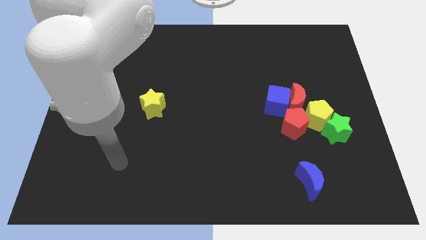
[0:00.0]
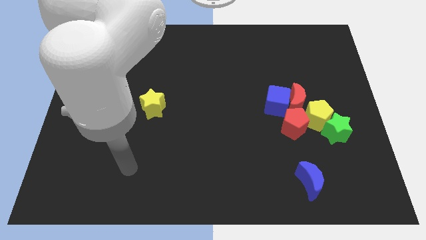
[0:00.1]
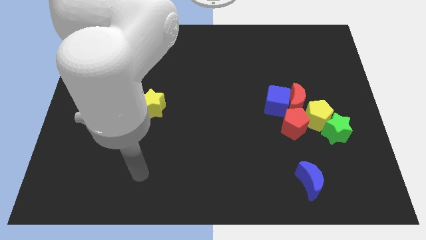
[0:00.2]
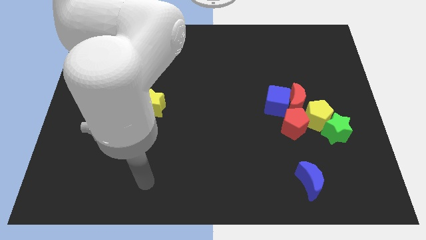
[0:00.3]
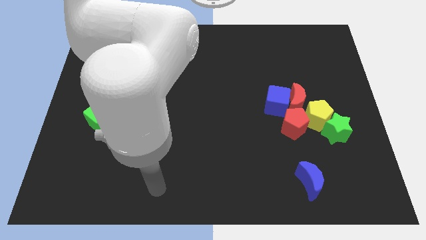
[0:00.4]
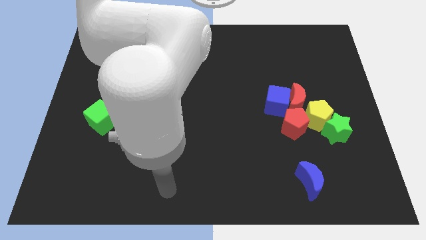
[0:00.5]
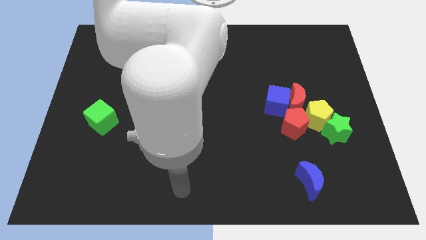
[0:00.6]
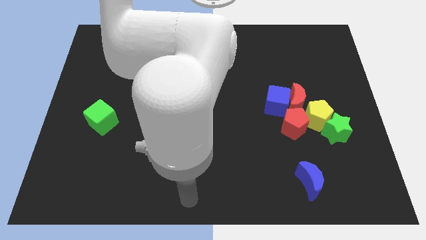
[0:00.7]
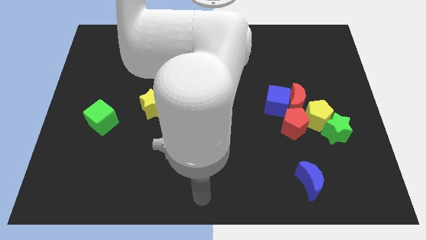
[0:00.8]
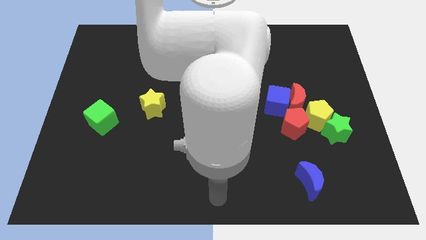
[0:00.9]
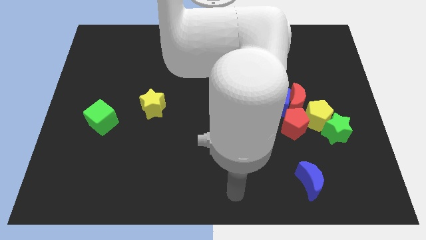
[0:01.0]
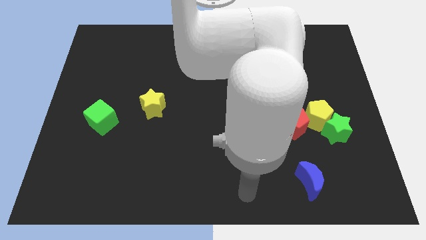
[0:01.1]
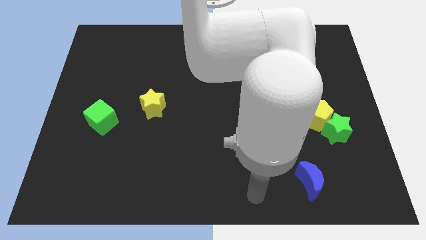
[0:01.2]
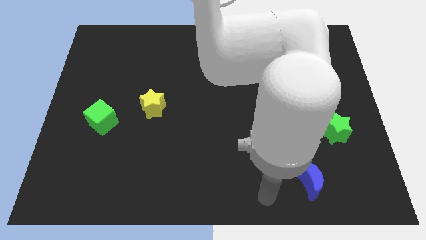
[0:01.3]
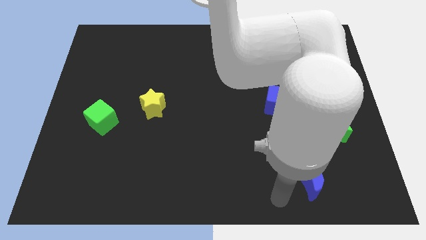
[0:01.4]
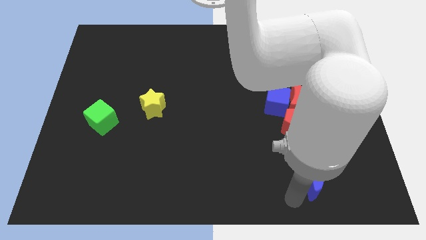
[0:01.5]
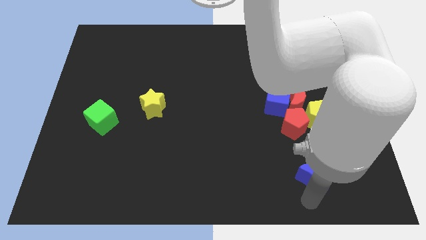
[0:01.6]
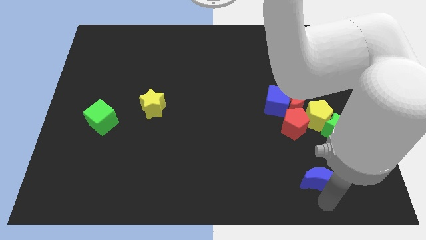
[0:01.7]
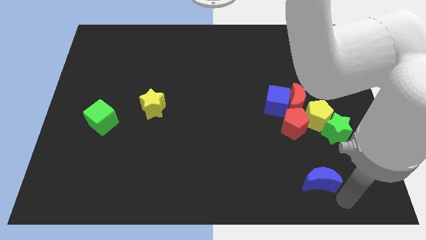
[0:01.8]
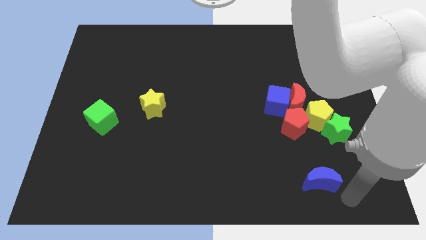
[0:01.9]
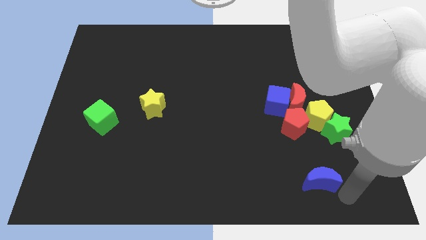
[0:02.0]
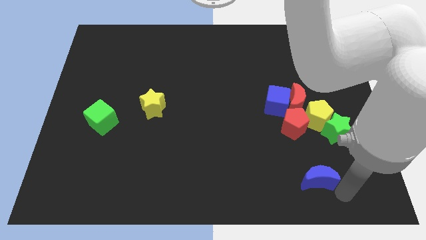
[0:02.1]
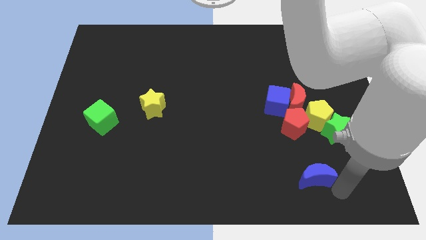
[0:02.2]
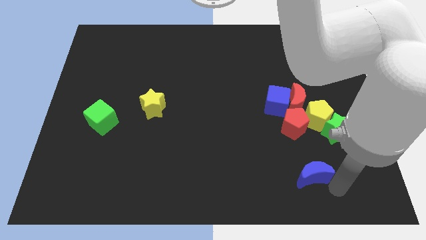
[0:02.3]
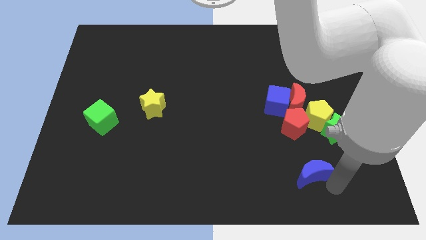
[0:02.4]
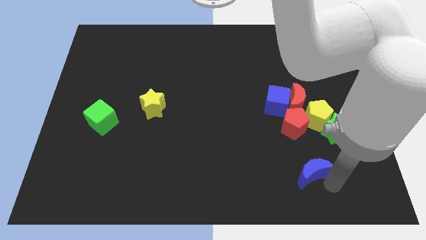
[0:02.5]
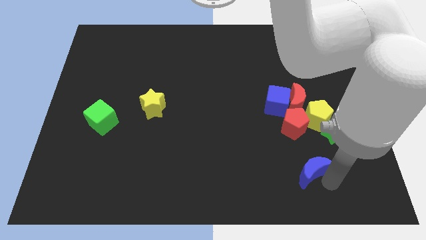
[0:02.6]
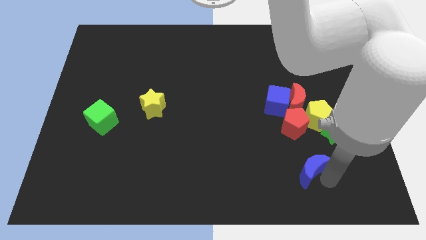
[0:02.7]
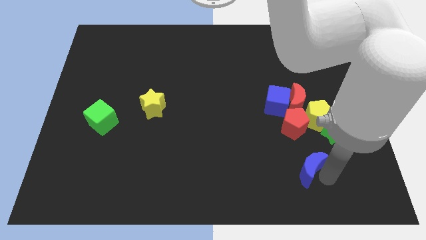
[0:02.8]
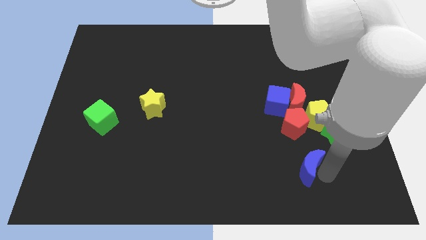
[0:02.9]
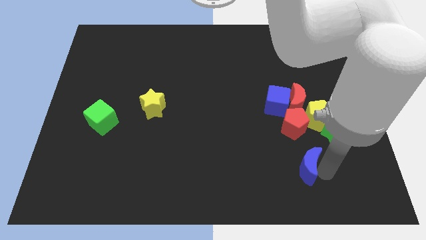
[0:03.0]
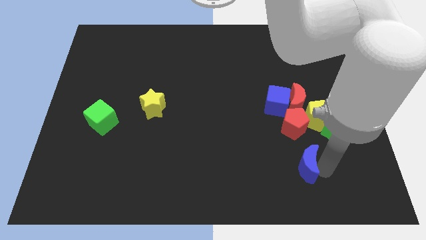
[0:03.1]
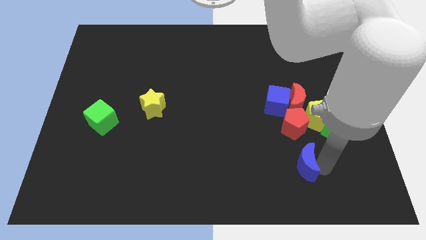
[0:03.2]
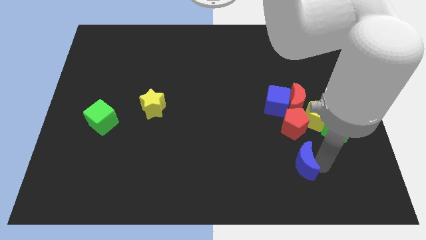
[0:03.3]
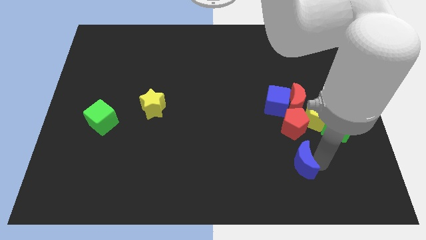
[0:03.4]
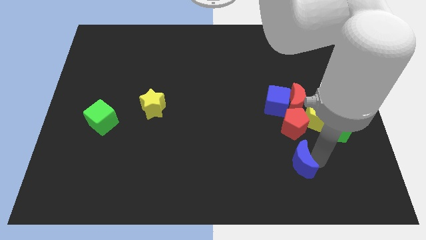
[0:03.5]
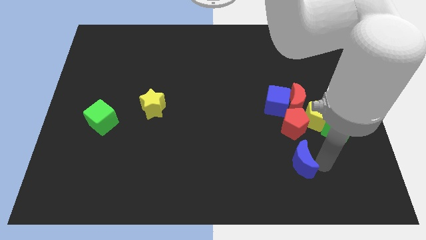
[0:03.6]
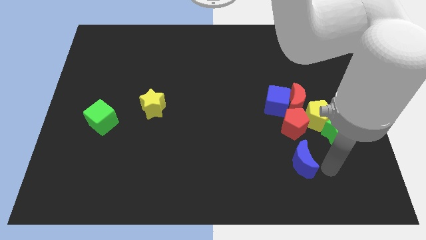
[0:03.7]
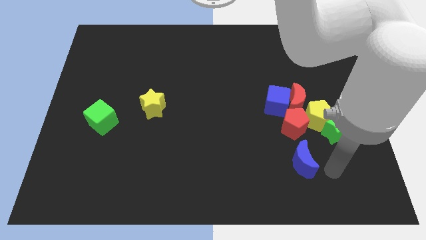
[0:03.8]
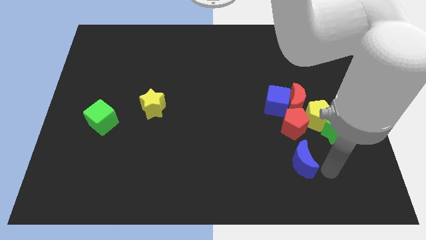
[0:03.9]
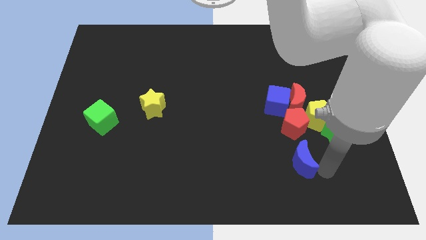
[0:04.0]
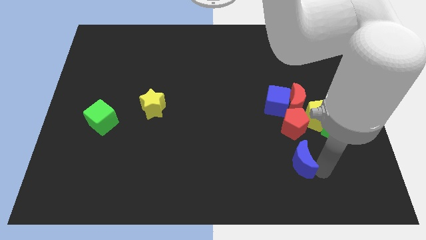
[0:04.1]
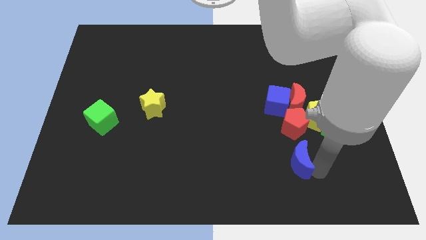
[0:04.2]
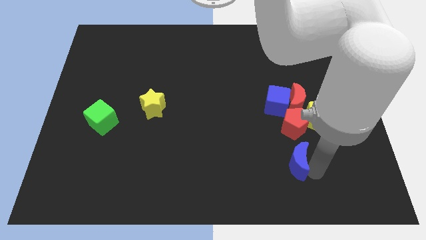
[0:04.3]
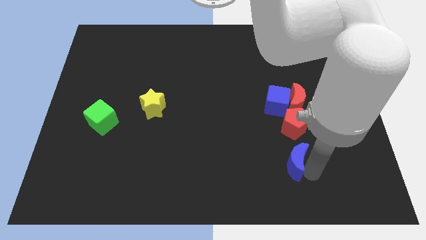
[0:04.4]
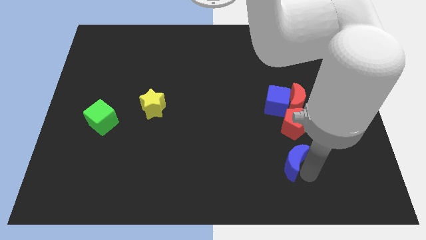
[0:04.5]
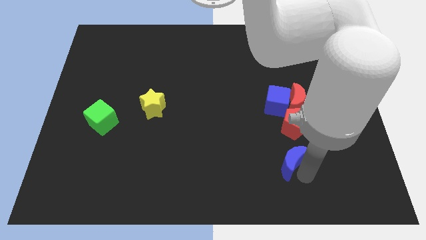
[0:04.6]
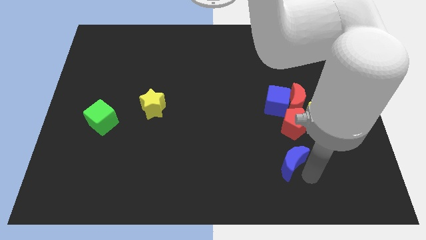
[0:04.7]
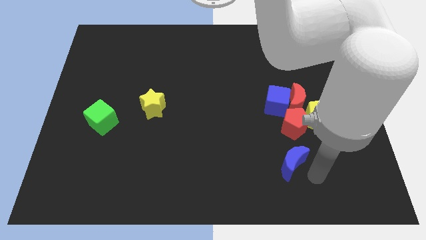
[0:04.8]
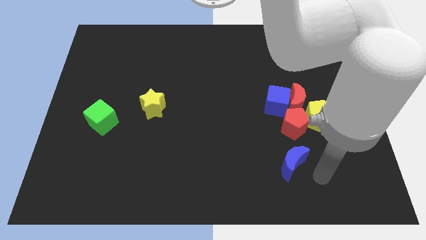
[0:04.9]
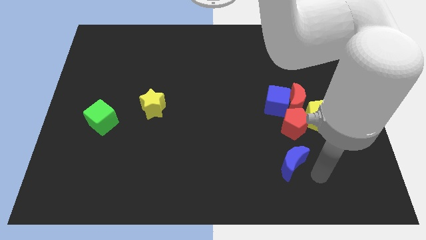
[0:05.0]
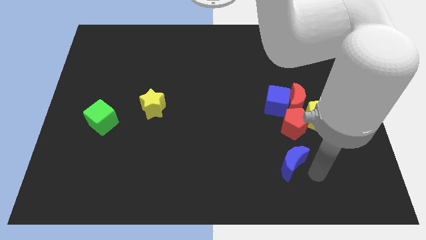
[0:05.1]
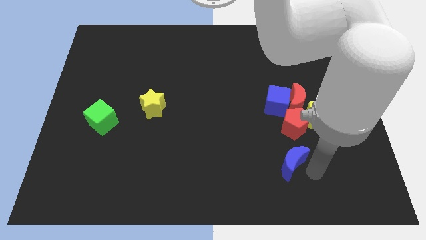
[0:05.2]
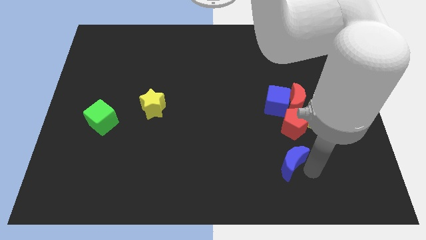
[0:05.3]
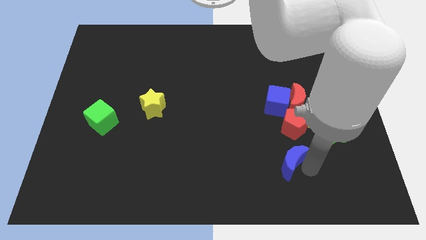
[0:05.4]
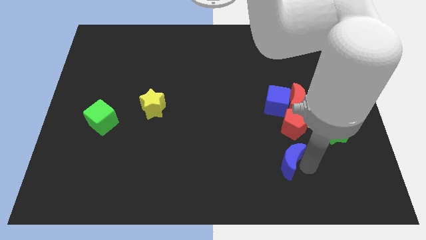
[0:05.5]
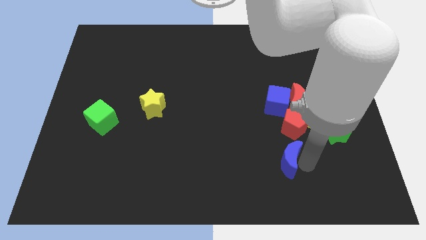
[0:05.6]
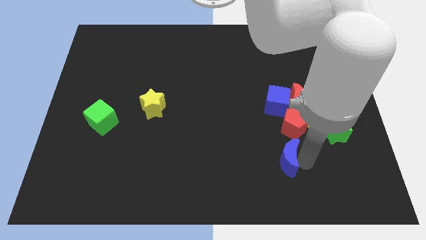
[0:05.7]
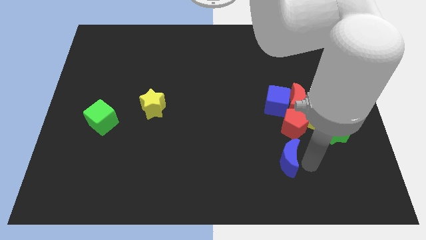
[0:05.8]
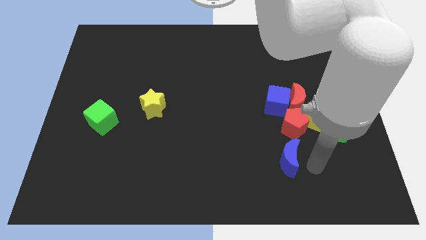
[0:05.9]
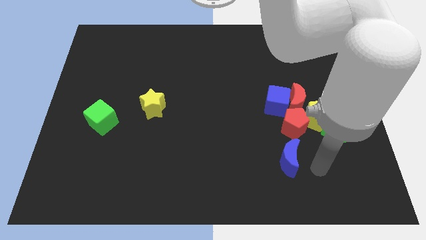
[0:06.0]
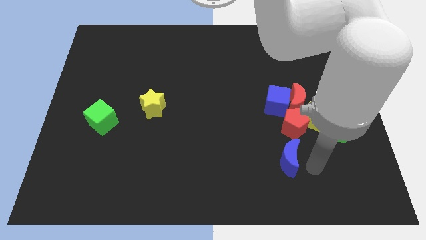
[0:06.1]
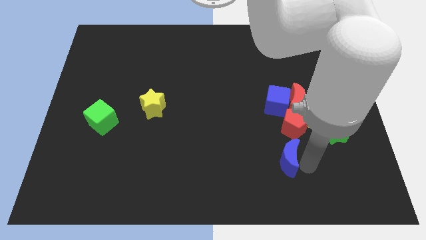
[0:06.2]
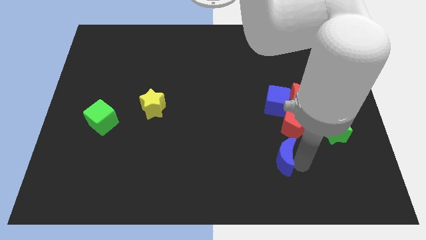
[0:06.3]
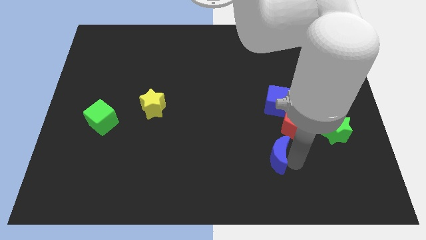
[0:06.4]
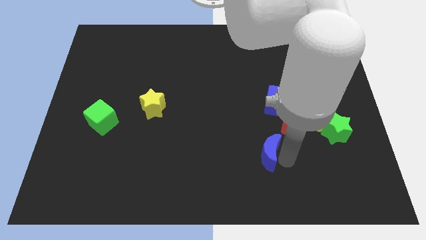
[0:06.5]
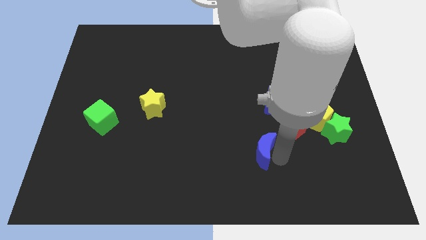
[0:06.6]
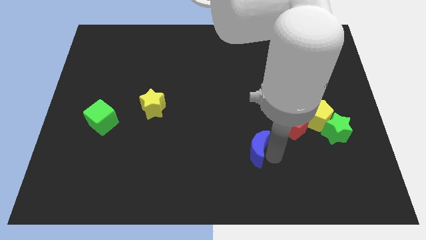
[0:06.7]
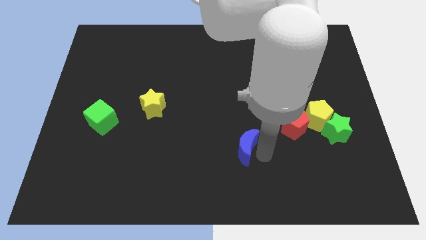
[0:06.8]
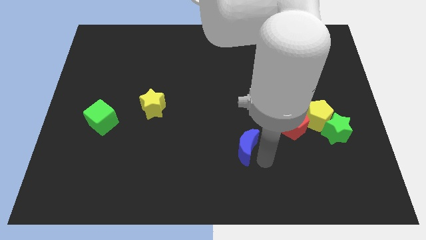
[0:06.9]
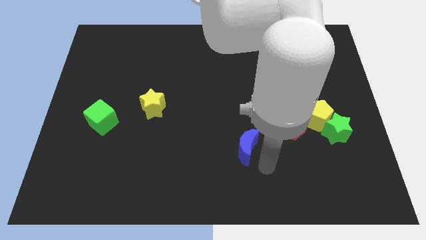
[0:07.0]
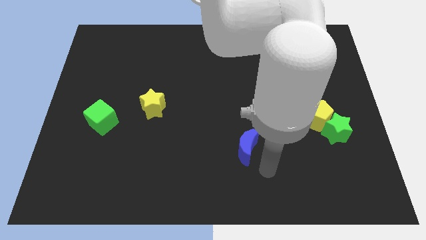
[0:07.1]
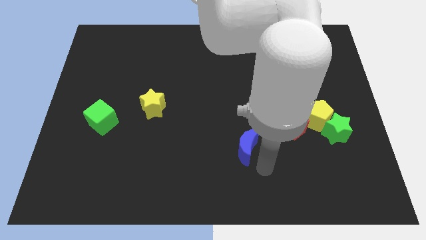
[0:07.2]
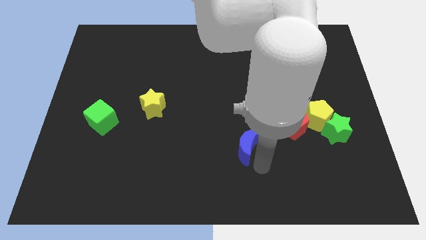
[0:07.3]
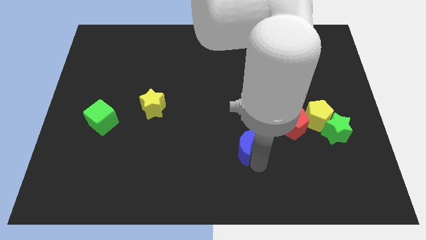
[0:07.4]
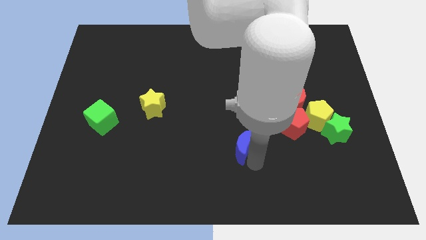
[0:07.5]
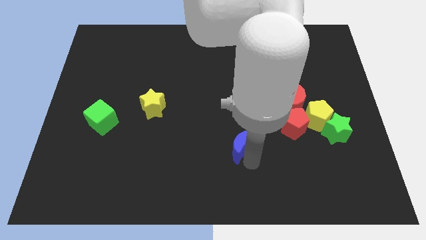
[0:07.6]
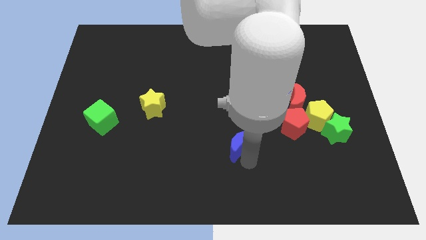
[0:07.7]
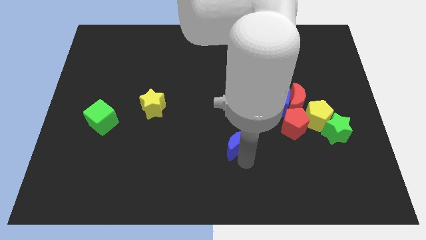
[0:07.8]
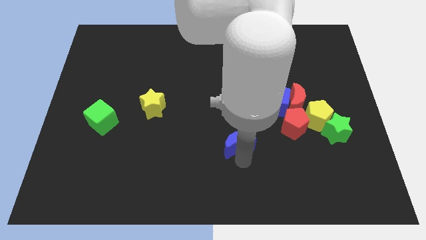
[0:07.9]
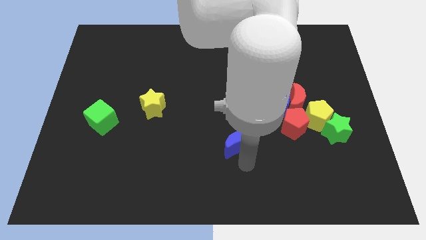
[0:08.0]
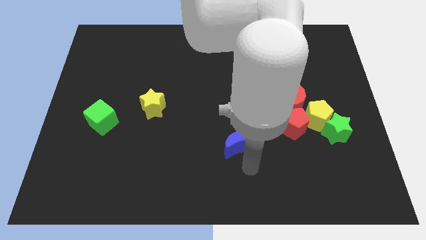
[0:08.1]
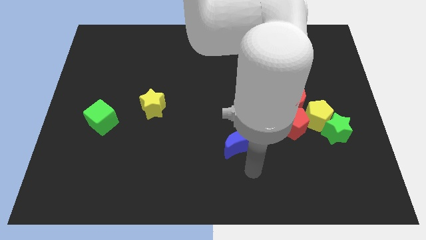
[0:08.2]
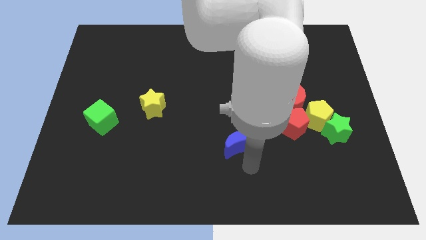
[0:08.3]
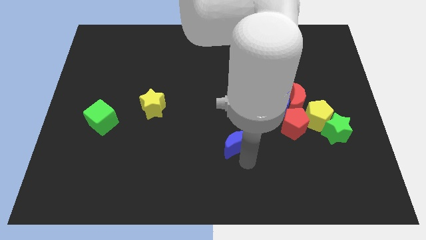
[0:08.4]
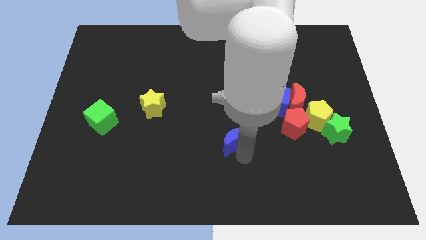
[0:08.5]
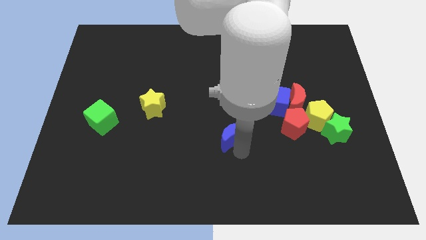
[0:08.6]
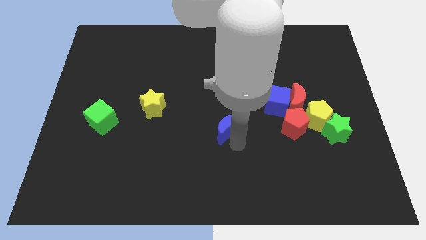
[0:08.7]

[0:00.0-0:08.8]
move the blue moon up and left diagonally
